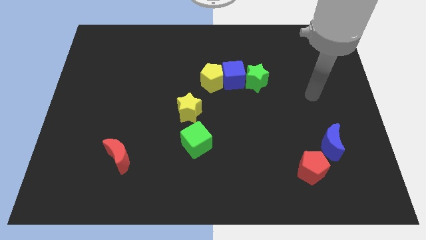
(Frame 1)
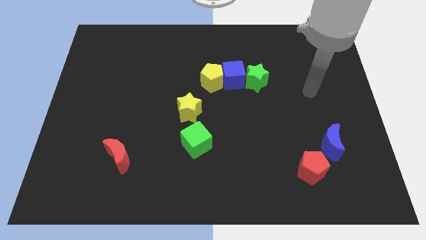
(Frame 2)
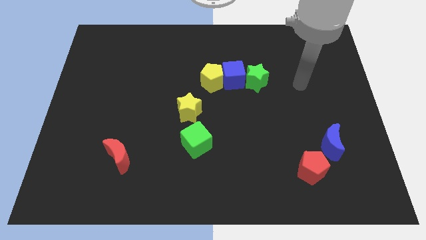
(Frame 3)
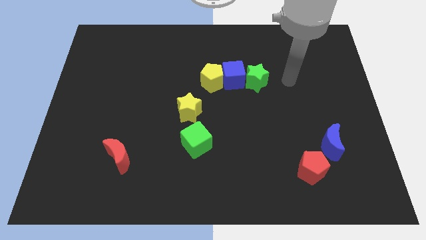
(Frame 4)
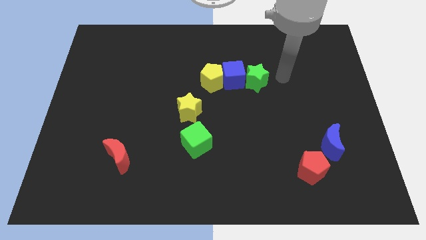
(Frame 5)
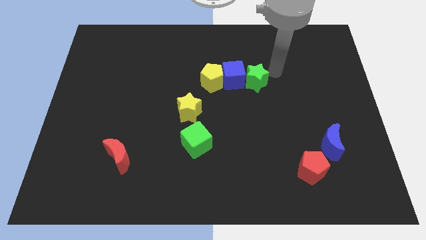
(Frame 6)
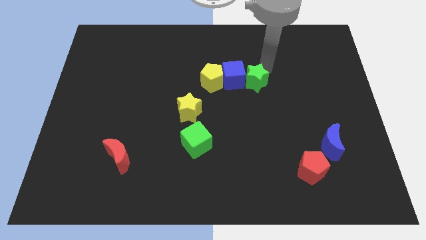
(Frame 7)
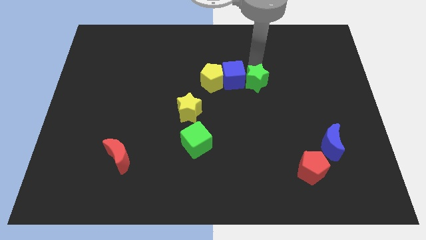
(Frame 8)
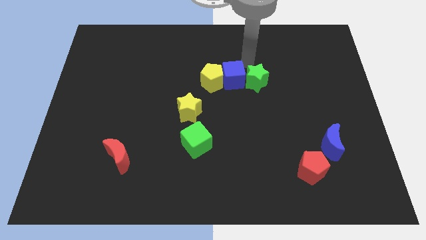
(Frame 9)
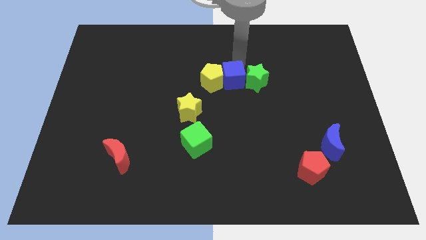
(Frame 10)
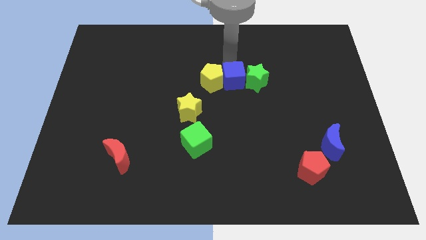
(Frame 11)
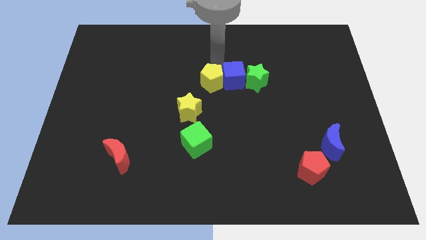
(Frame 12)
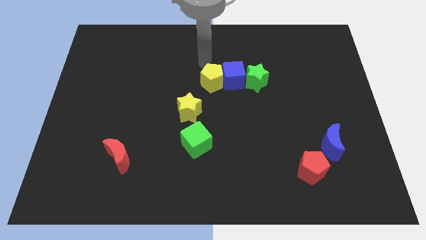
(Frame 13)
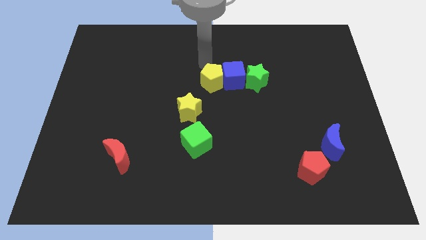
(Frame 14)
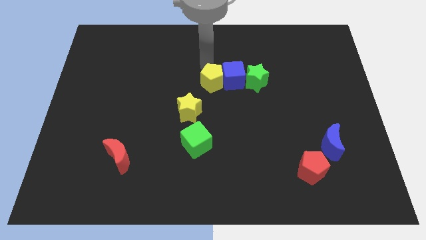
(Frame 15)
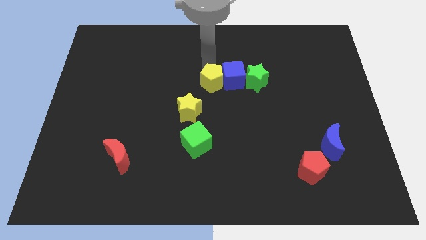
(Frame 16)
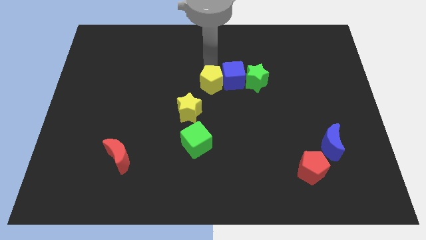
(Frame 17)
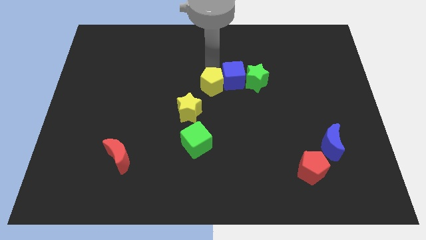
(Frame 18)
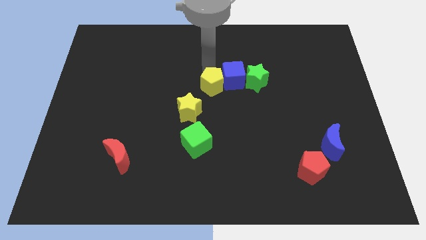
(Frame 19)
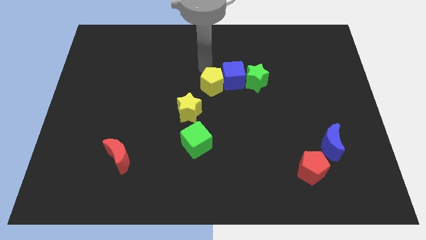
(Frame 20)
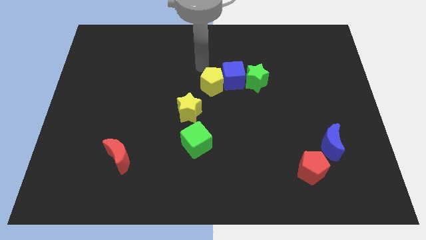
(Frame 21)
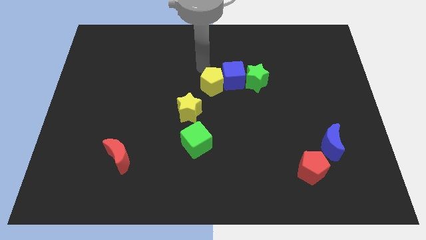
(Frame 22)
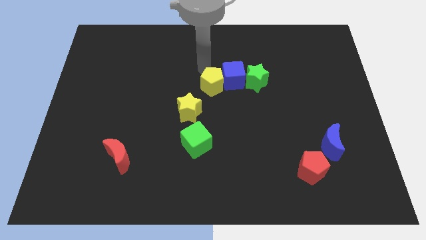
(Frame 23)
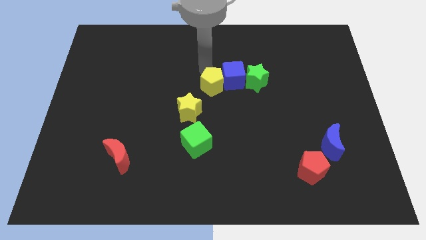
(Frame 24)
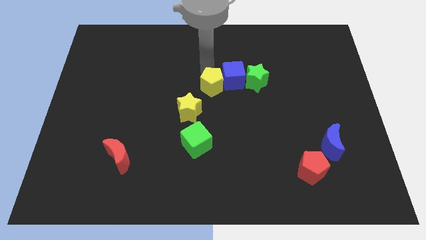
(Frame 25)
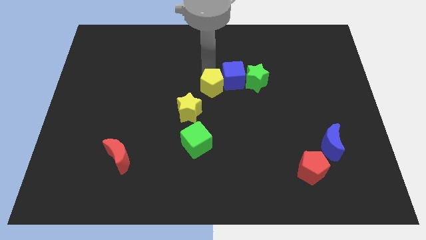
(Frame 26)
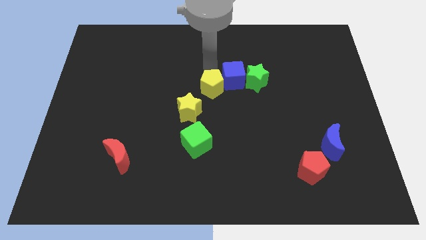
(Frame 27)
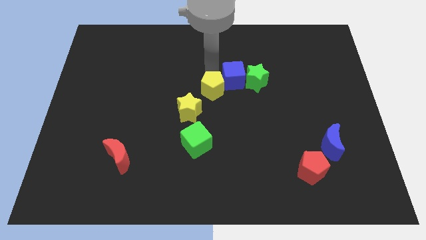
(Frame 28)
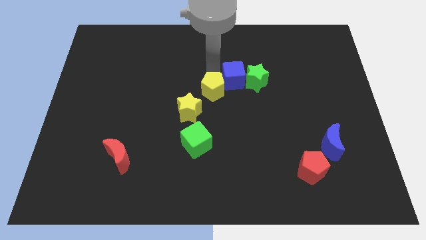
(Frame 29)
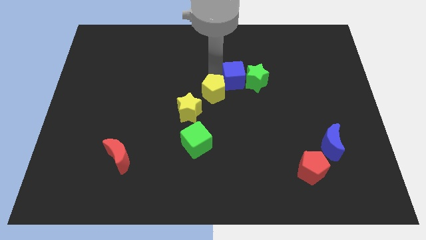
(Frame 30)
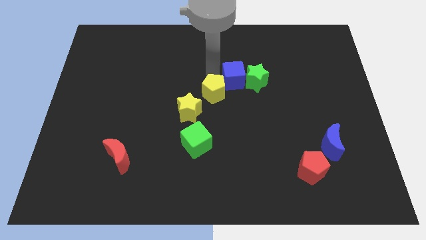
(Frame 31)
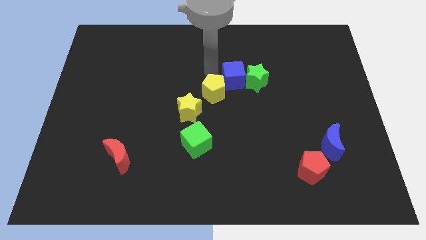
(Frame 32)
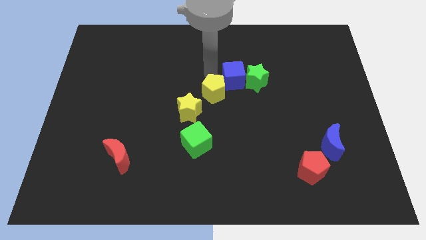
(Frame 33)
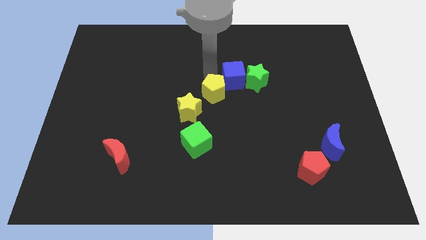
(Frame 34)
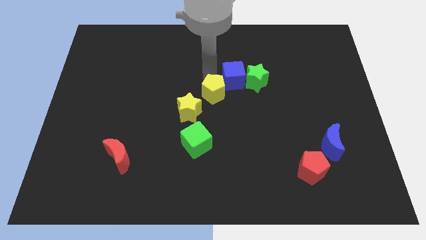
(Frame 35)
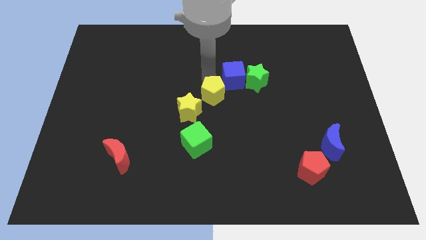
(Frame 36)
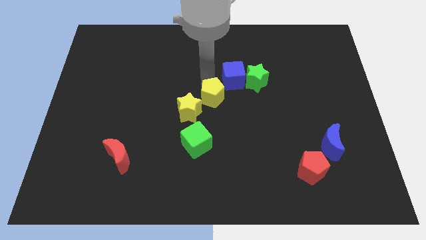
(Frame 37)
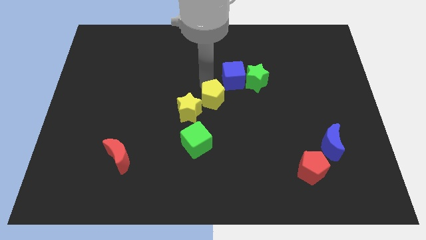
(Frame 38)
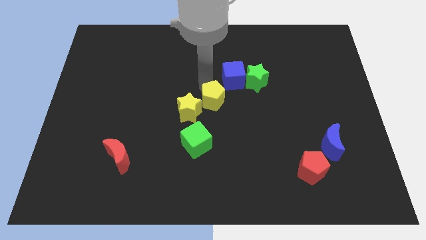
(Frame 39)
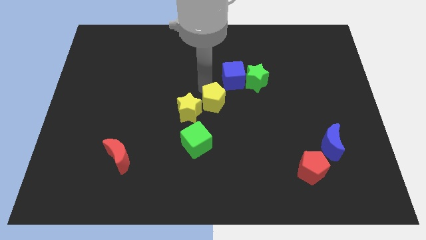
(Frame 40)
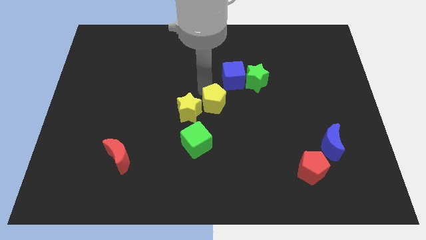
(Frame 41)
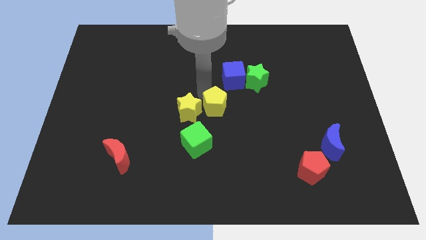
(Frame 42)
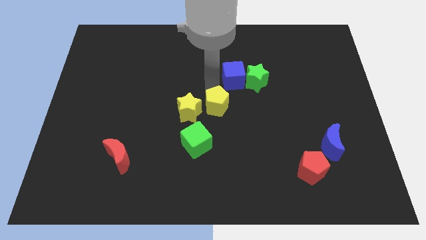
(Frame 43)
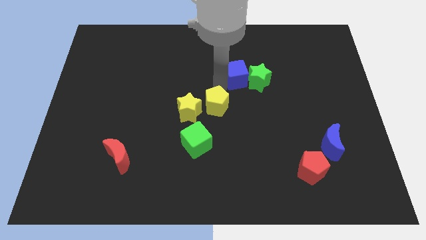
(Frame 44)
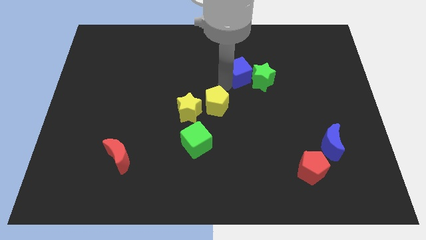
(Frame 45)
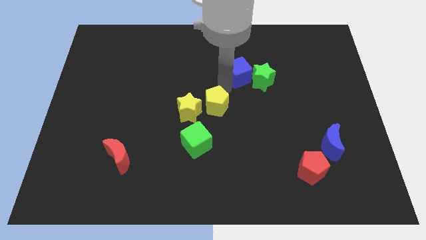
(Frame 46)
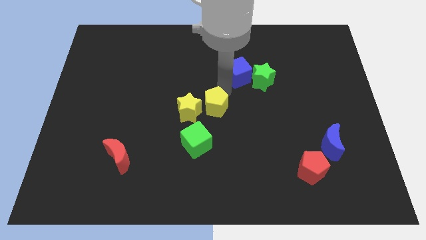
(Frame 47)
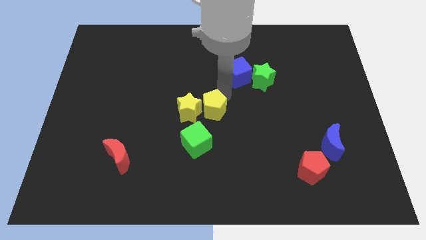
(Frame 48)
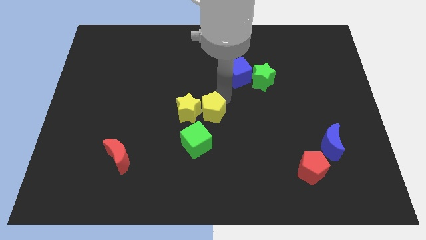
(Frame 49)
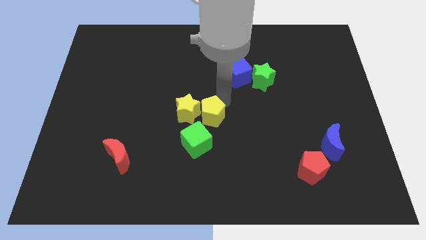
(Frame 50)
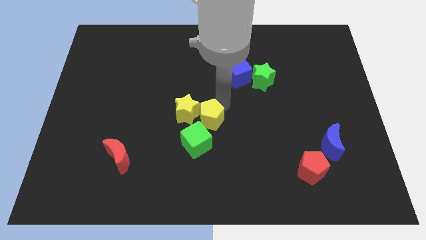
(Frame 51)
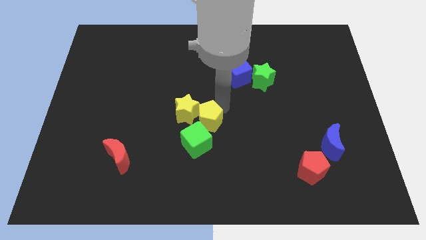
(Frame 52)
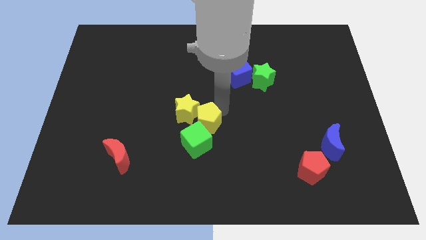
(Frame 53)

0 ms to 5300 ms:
slide the yellow pentagon towards the green cube
